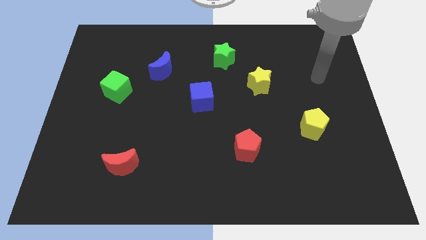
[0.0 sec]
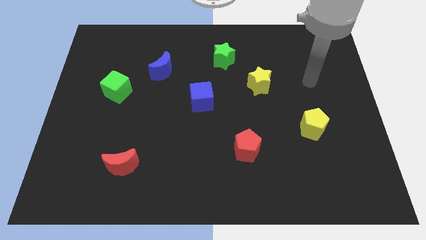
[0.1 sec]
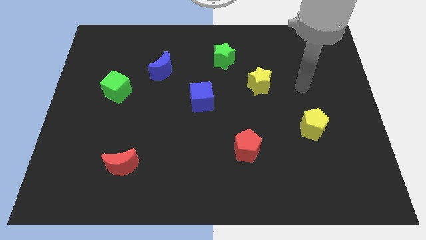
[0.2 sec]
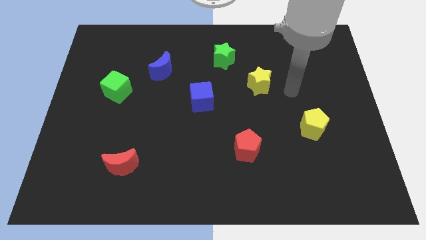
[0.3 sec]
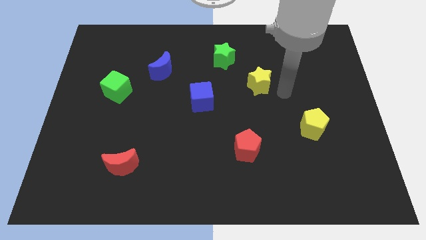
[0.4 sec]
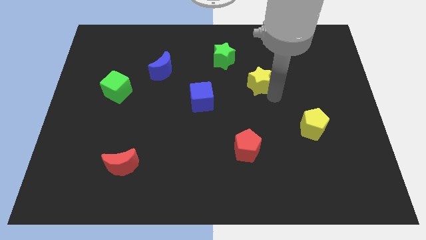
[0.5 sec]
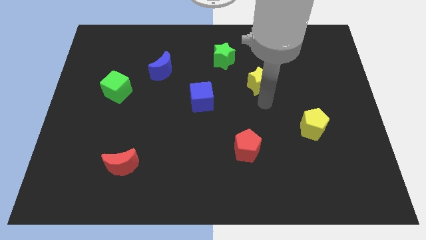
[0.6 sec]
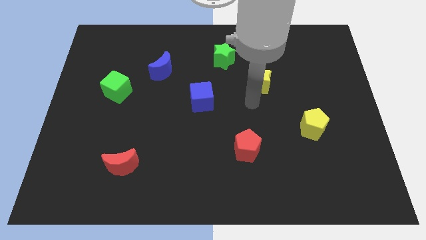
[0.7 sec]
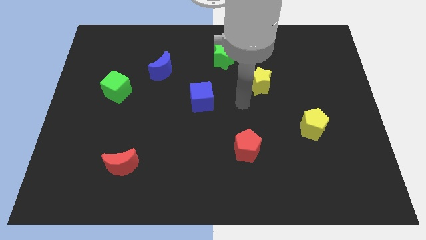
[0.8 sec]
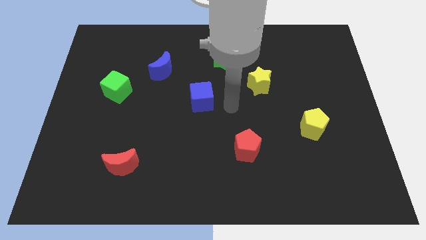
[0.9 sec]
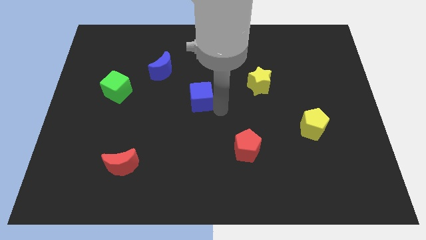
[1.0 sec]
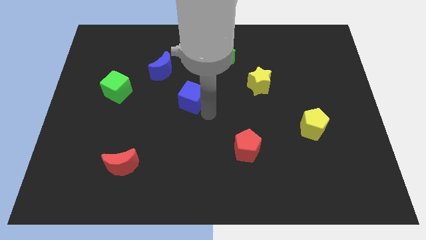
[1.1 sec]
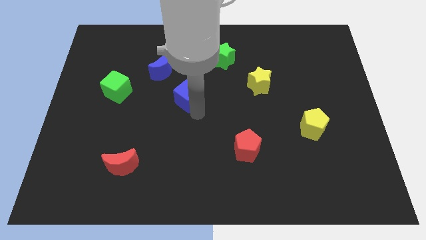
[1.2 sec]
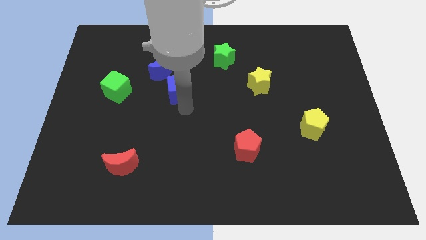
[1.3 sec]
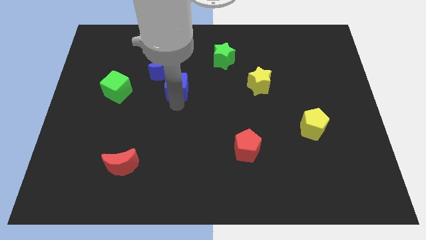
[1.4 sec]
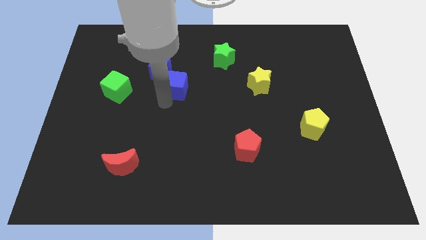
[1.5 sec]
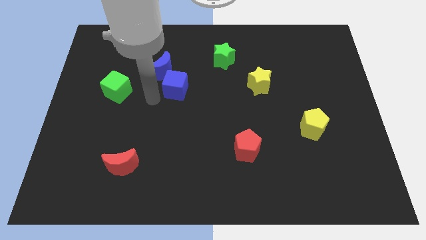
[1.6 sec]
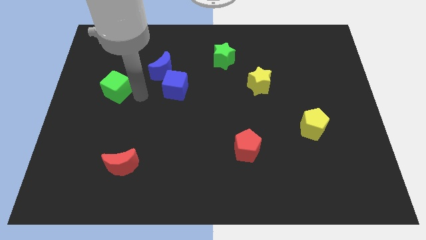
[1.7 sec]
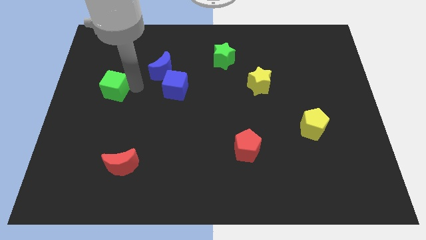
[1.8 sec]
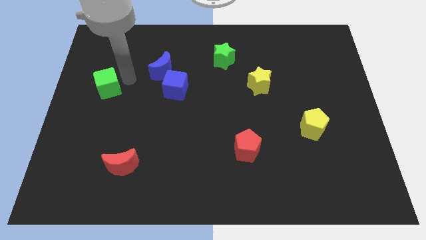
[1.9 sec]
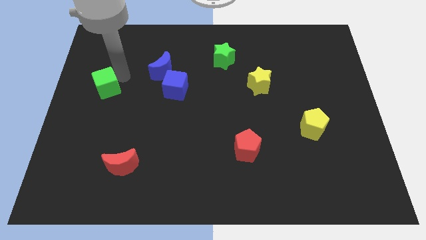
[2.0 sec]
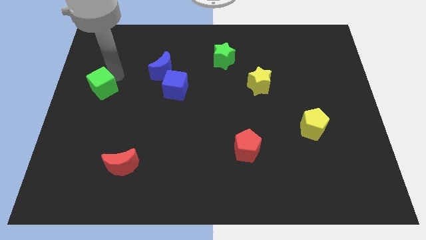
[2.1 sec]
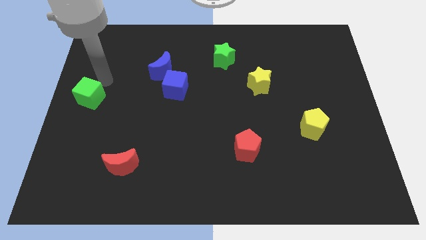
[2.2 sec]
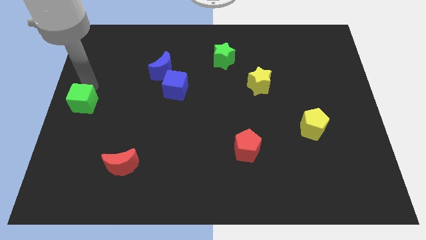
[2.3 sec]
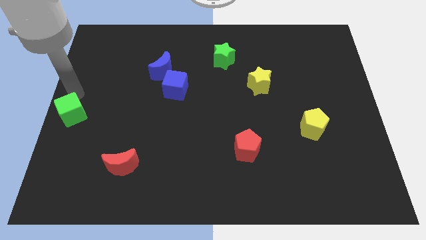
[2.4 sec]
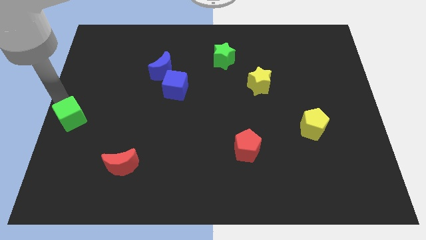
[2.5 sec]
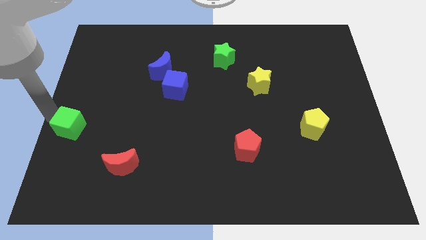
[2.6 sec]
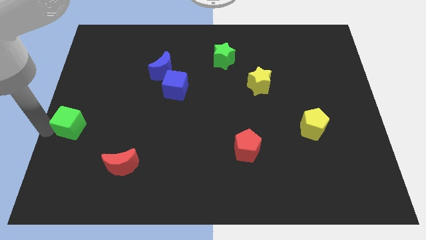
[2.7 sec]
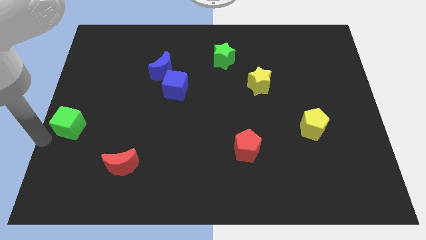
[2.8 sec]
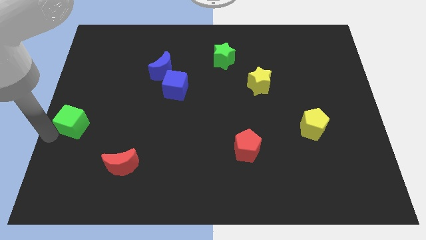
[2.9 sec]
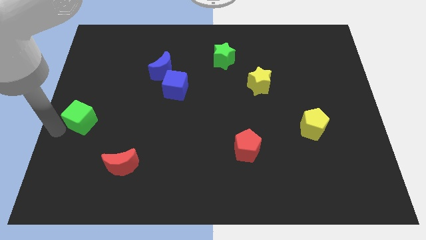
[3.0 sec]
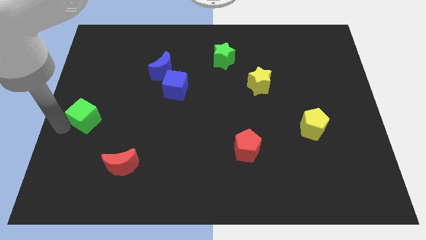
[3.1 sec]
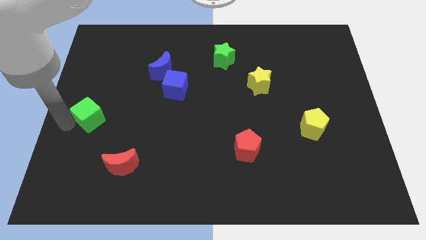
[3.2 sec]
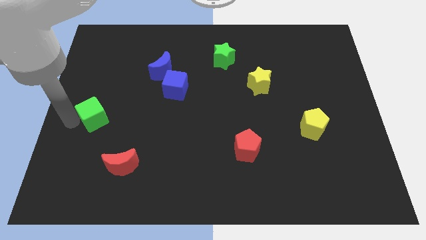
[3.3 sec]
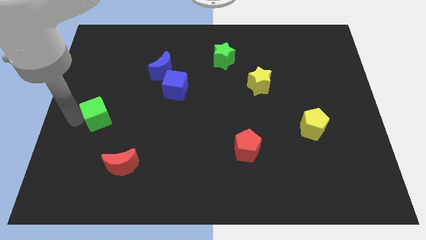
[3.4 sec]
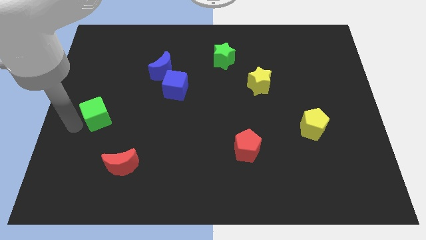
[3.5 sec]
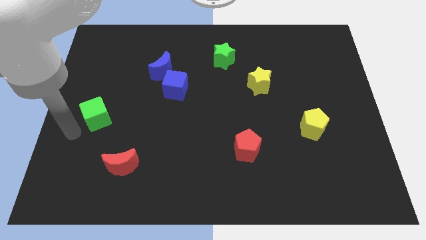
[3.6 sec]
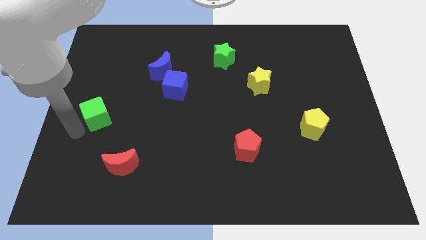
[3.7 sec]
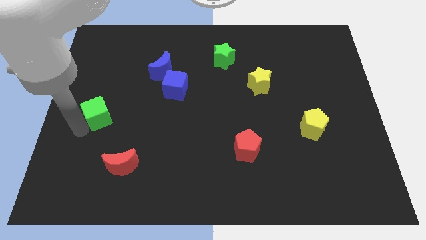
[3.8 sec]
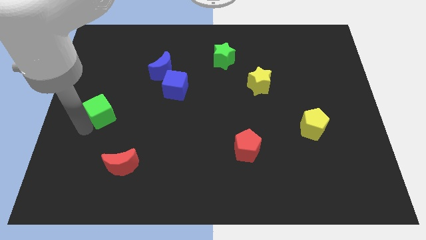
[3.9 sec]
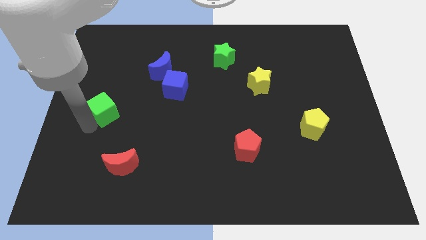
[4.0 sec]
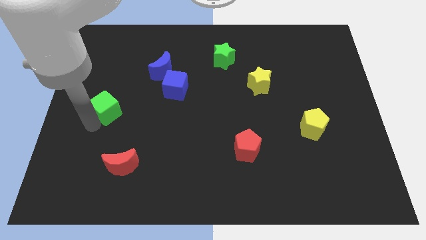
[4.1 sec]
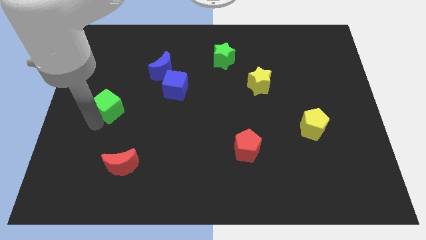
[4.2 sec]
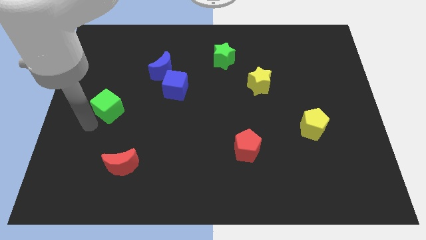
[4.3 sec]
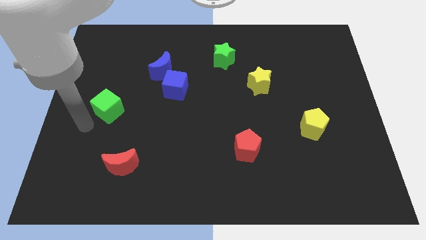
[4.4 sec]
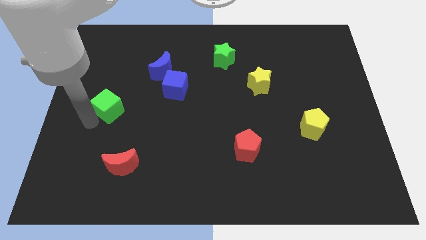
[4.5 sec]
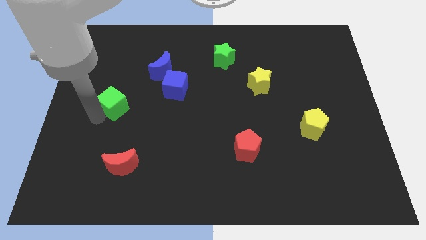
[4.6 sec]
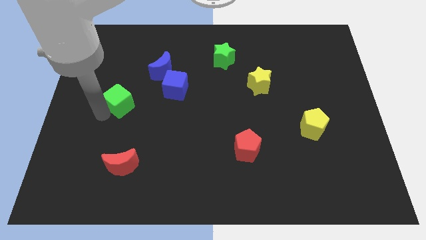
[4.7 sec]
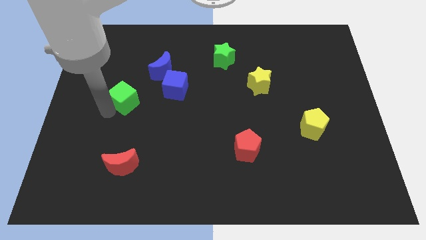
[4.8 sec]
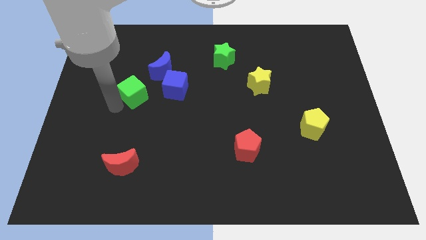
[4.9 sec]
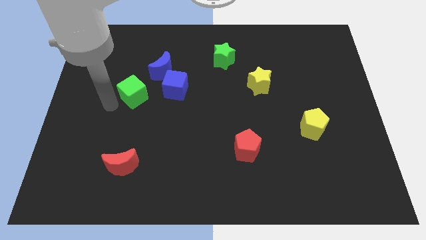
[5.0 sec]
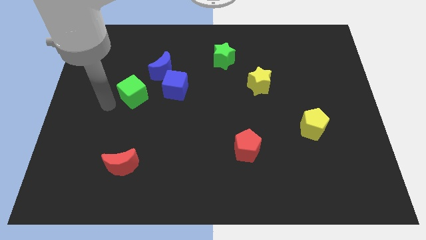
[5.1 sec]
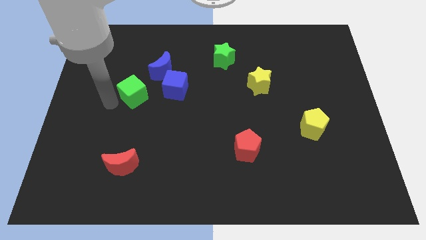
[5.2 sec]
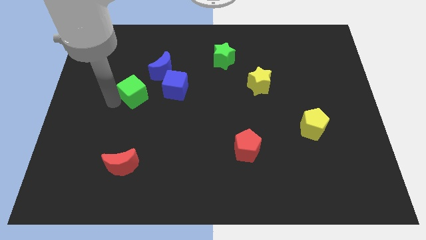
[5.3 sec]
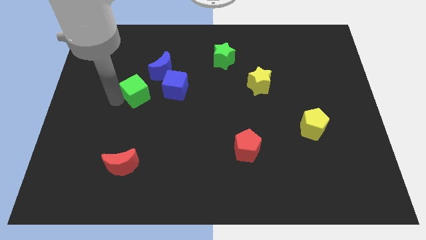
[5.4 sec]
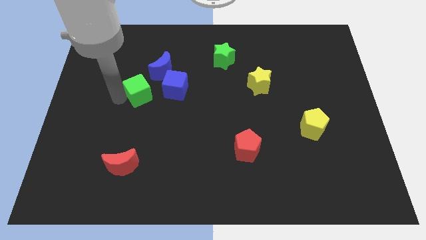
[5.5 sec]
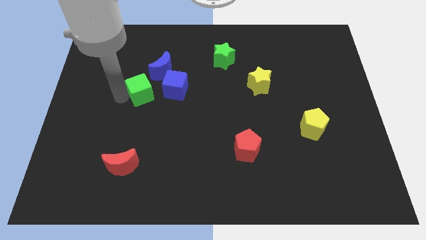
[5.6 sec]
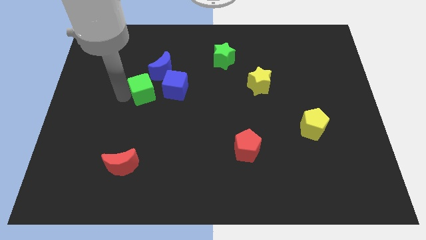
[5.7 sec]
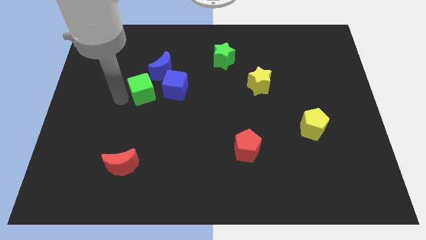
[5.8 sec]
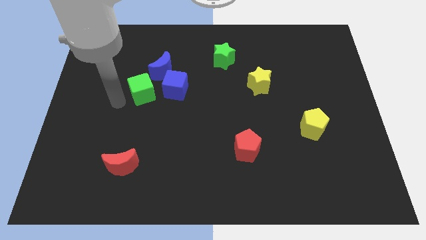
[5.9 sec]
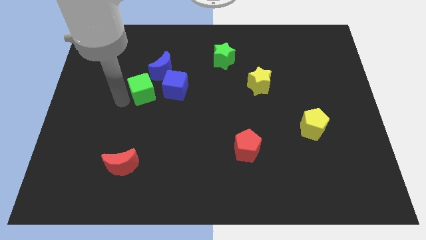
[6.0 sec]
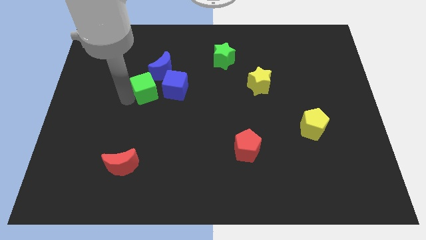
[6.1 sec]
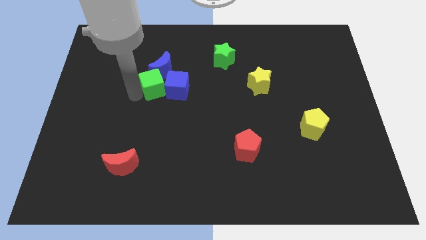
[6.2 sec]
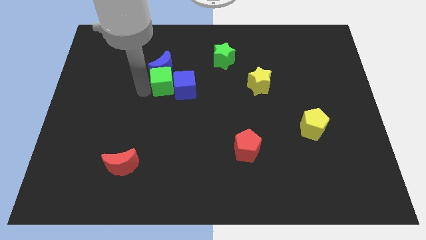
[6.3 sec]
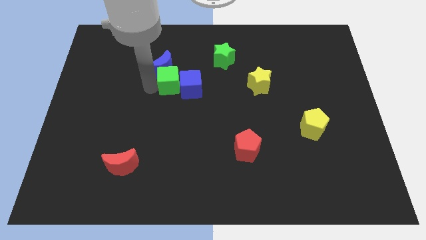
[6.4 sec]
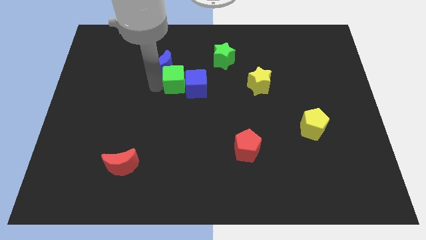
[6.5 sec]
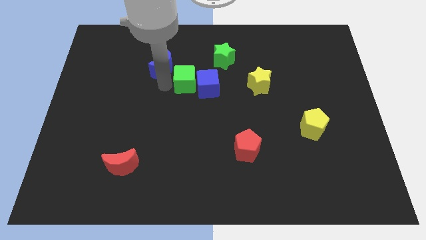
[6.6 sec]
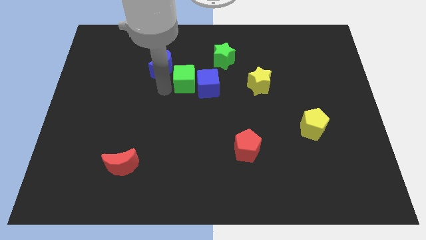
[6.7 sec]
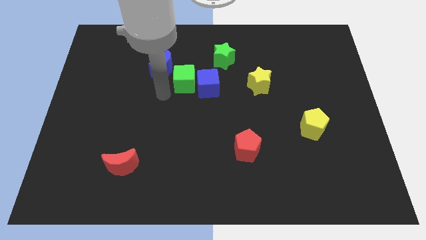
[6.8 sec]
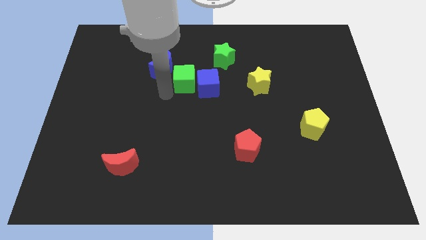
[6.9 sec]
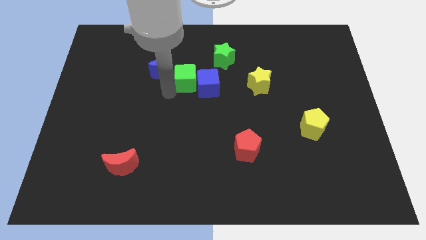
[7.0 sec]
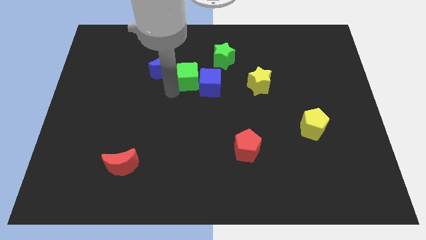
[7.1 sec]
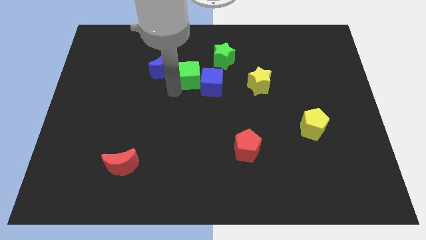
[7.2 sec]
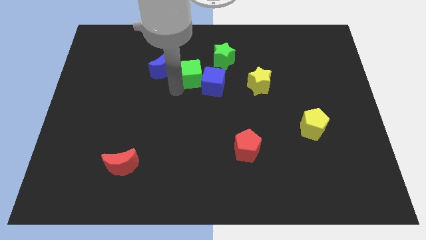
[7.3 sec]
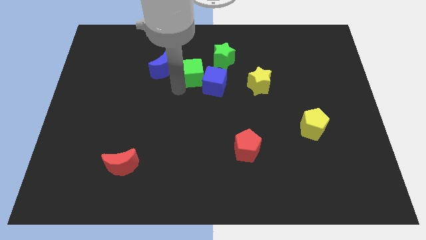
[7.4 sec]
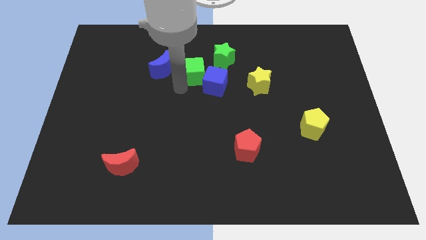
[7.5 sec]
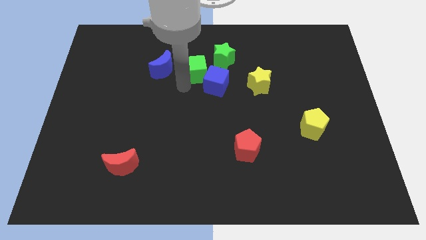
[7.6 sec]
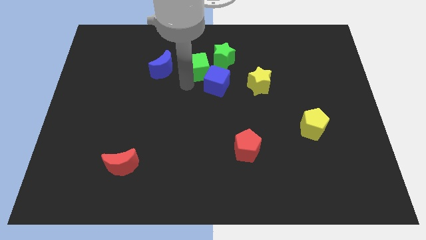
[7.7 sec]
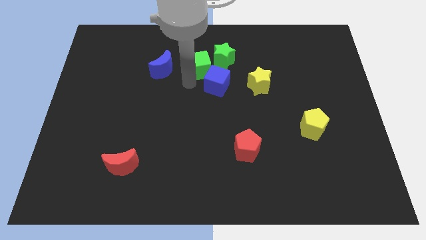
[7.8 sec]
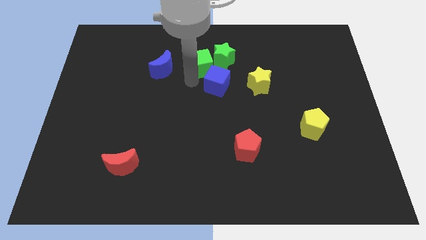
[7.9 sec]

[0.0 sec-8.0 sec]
push the green cube towards the green star

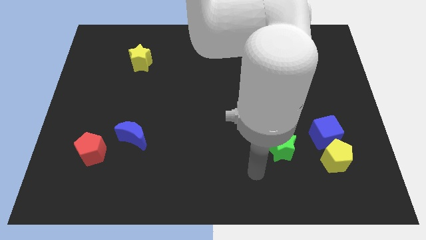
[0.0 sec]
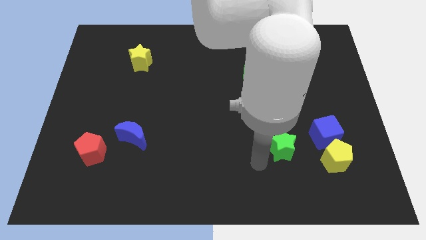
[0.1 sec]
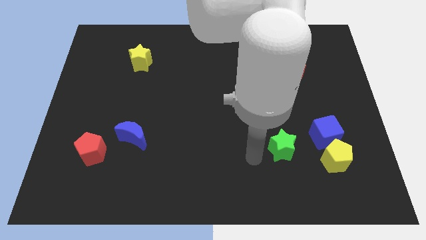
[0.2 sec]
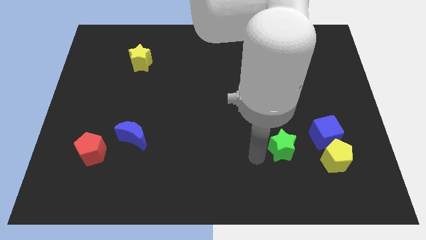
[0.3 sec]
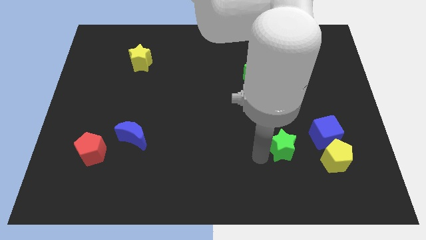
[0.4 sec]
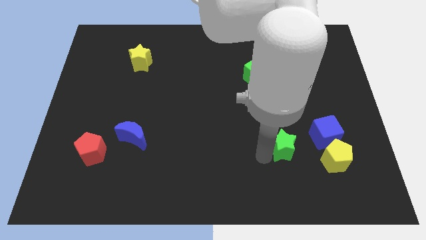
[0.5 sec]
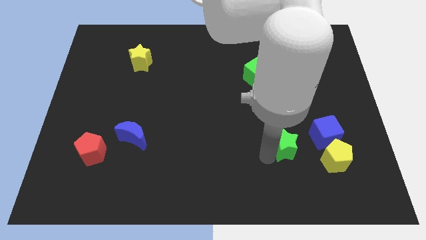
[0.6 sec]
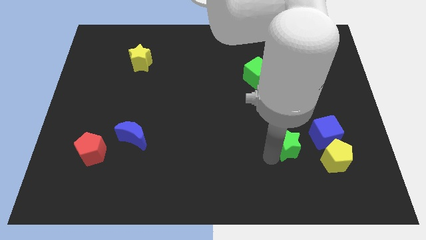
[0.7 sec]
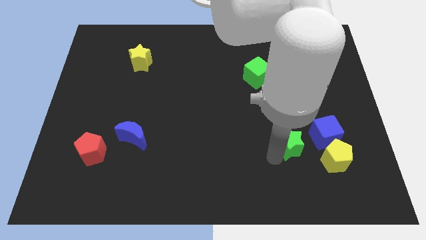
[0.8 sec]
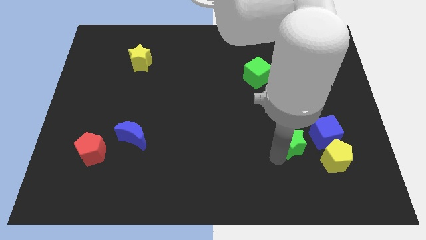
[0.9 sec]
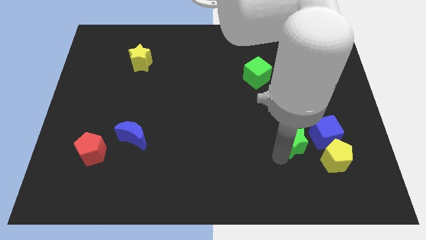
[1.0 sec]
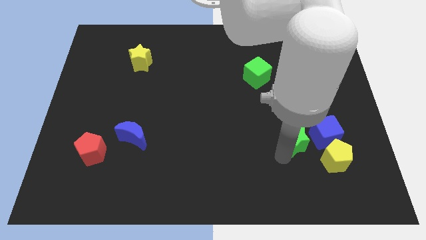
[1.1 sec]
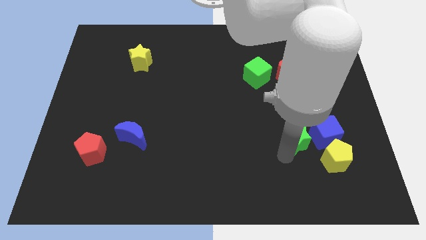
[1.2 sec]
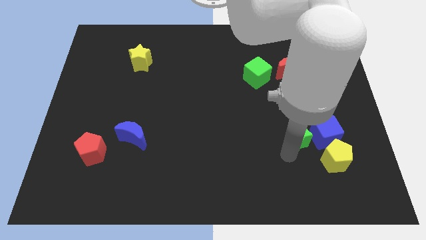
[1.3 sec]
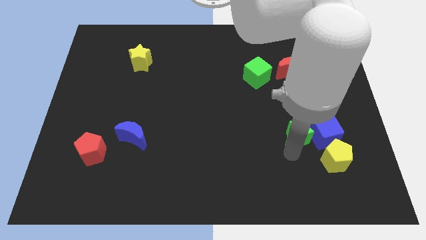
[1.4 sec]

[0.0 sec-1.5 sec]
move the green star next to the blue cube
